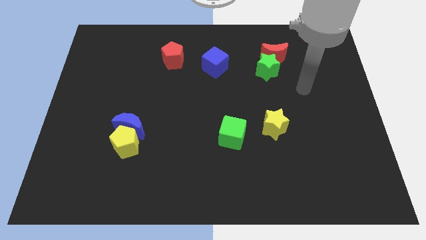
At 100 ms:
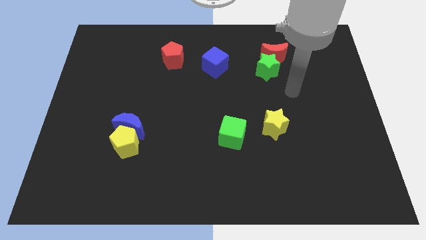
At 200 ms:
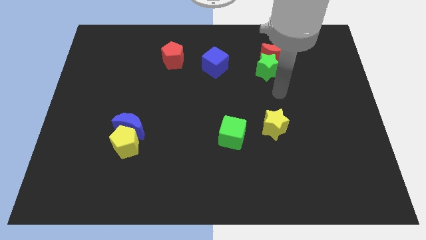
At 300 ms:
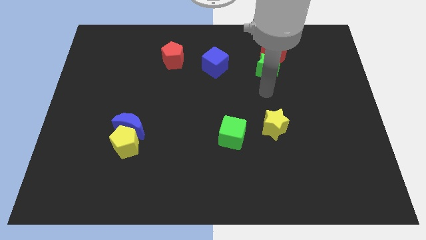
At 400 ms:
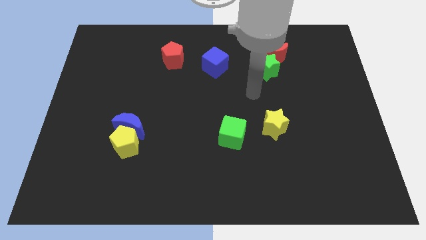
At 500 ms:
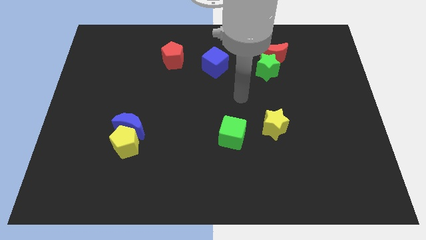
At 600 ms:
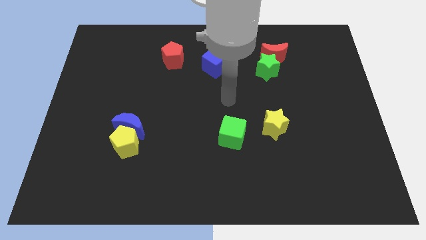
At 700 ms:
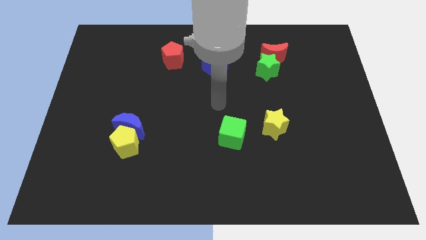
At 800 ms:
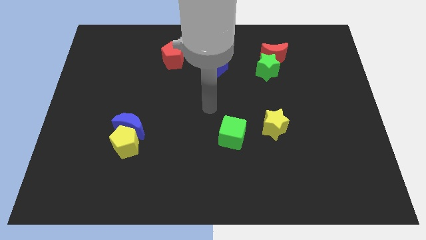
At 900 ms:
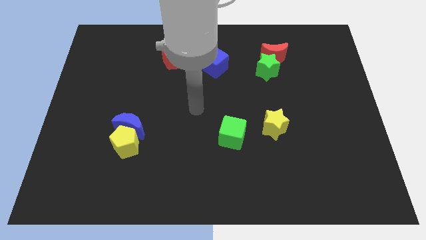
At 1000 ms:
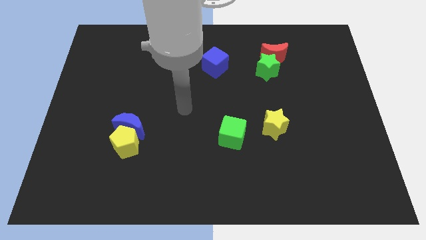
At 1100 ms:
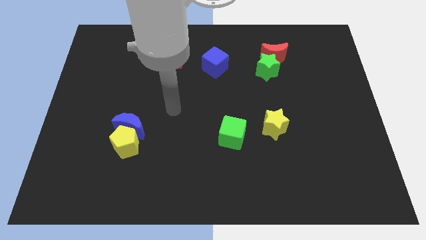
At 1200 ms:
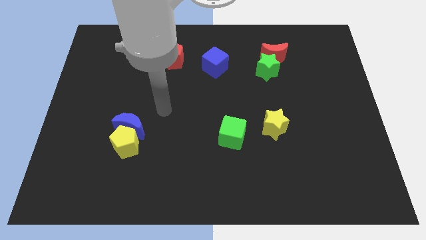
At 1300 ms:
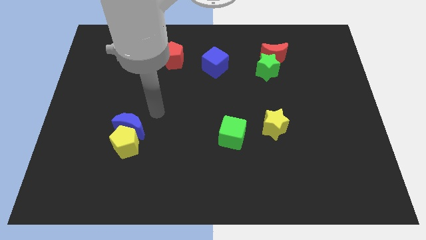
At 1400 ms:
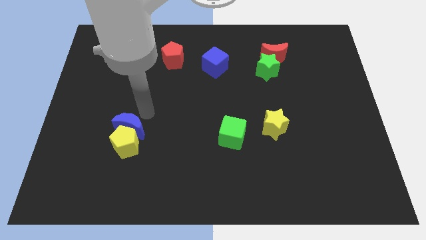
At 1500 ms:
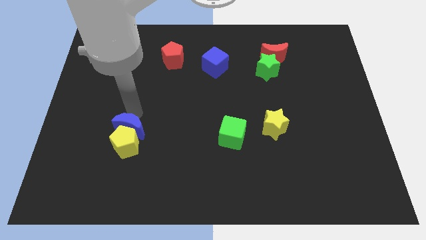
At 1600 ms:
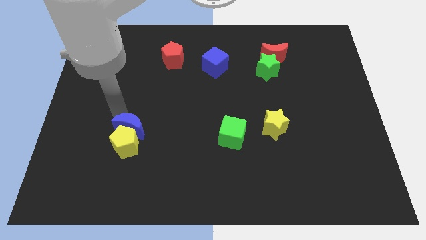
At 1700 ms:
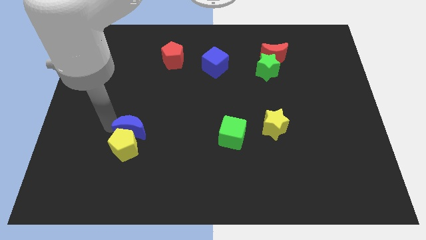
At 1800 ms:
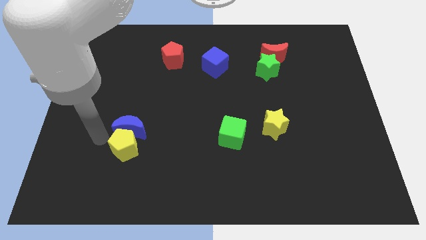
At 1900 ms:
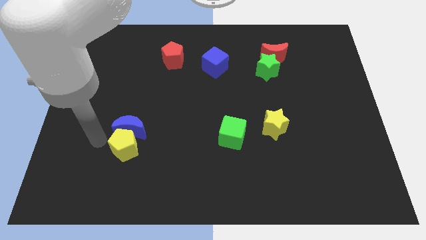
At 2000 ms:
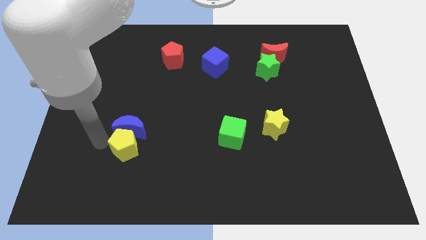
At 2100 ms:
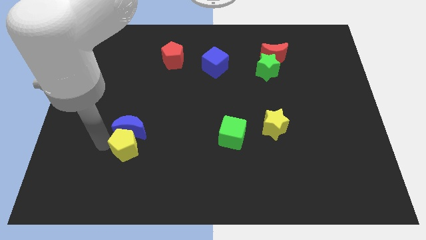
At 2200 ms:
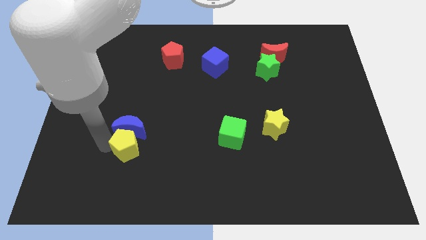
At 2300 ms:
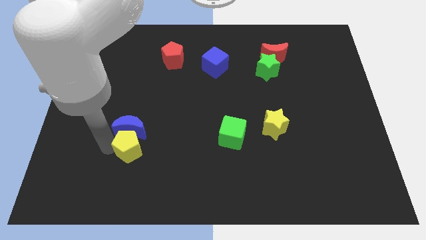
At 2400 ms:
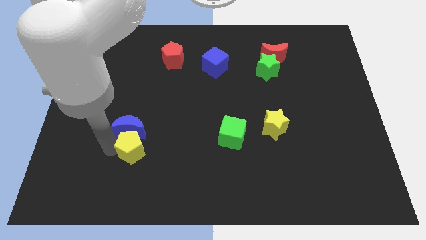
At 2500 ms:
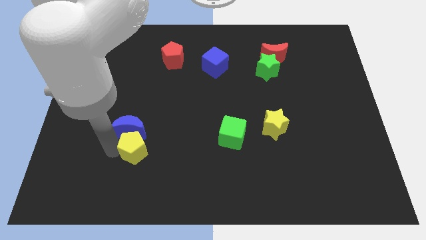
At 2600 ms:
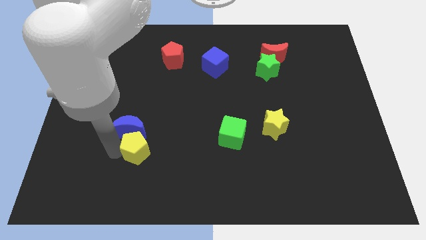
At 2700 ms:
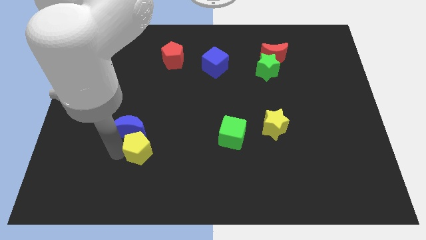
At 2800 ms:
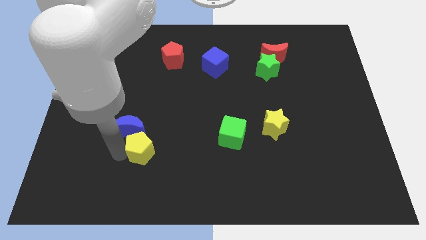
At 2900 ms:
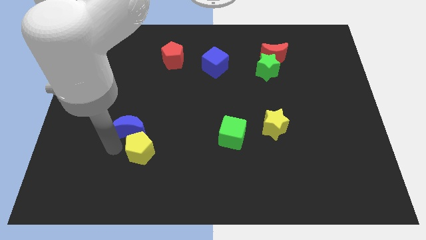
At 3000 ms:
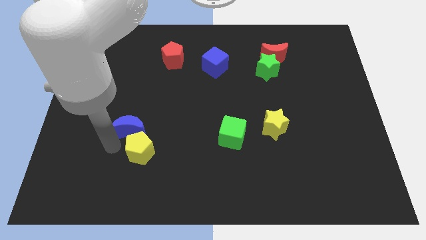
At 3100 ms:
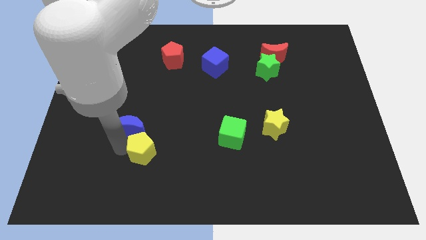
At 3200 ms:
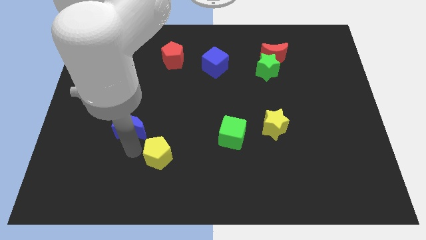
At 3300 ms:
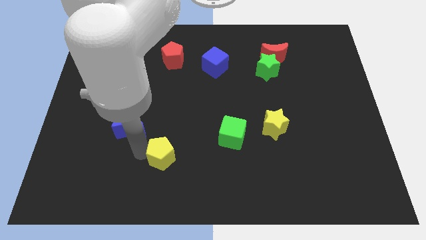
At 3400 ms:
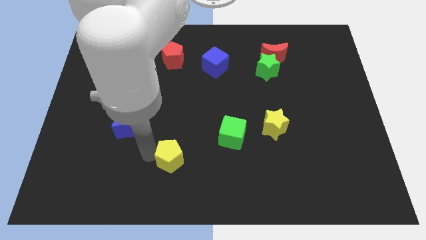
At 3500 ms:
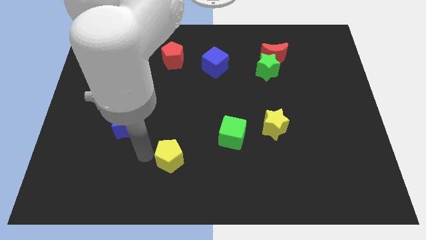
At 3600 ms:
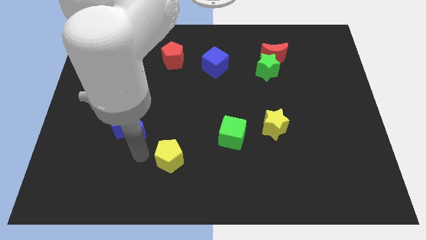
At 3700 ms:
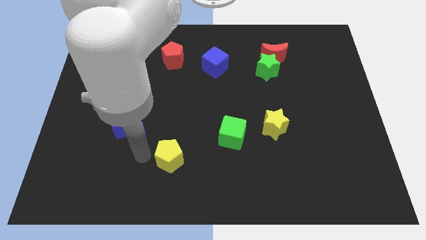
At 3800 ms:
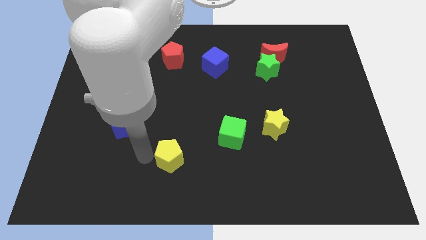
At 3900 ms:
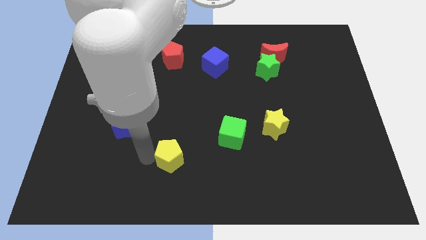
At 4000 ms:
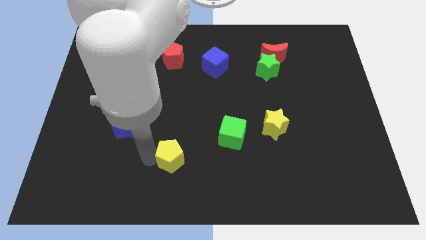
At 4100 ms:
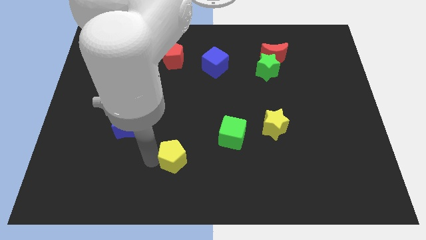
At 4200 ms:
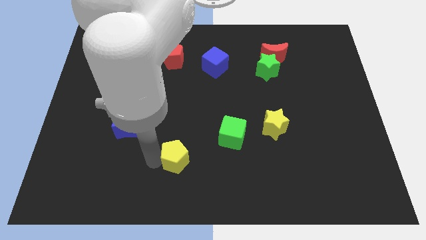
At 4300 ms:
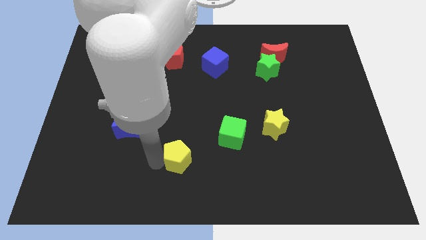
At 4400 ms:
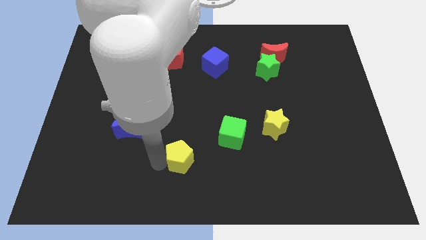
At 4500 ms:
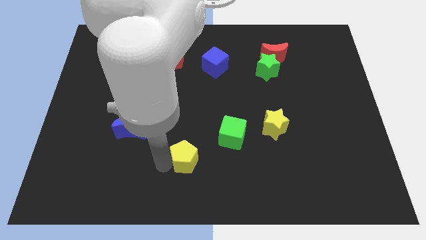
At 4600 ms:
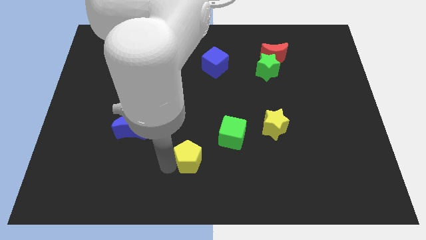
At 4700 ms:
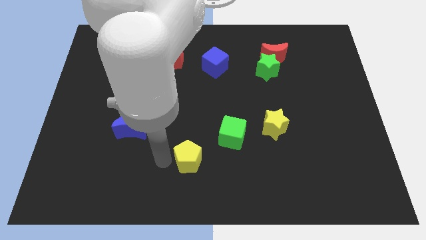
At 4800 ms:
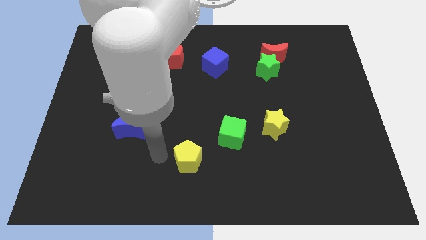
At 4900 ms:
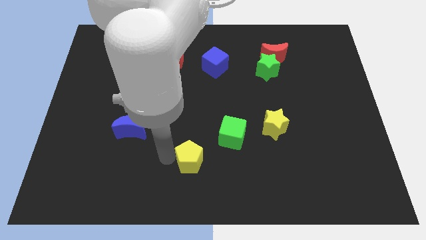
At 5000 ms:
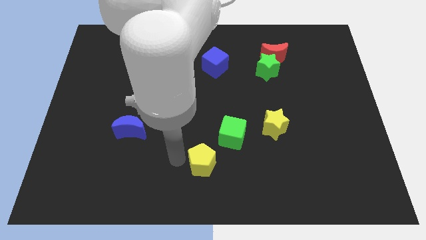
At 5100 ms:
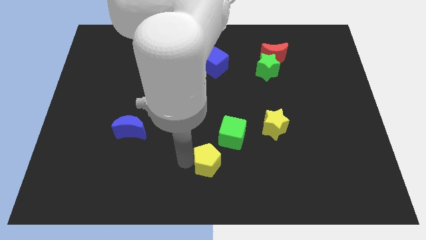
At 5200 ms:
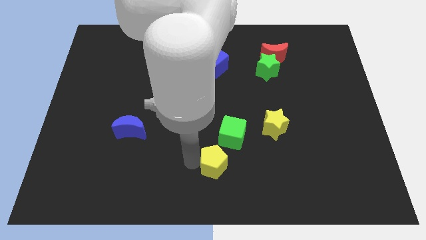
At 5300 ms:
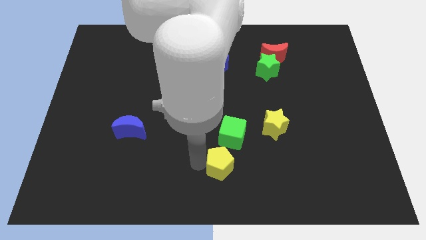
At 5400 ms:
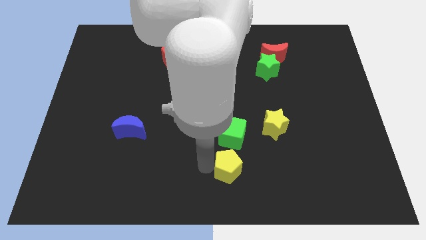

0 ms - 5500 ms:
slide the yellow pentagon right

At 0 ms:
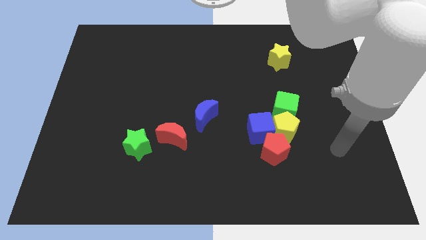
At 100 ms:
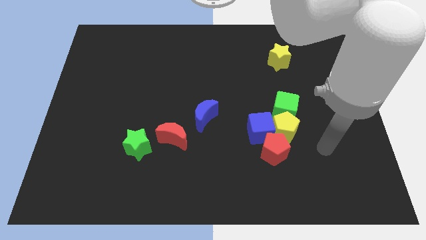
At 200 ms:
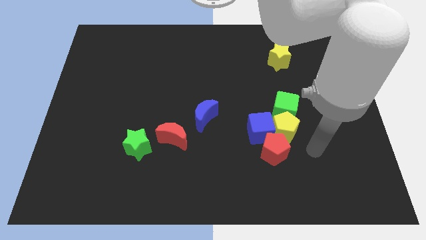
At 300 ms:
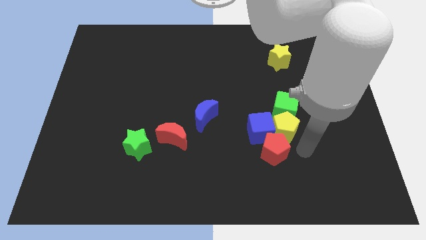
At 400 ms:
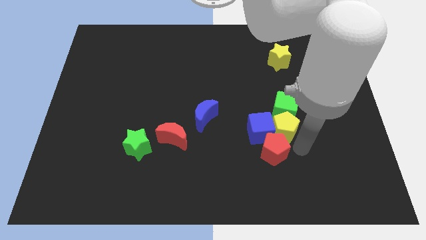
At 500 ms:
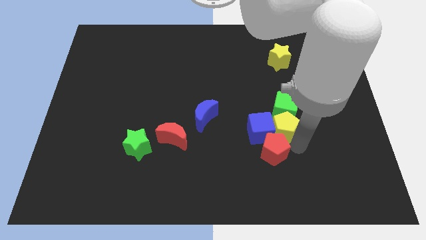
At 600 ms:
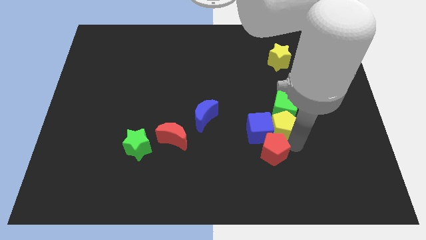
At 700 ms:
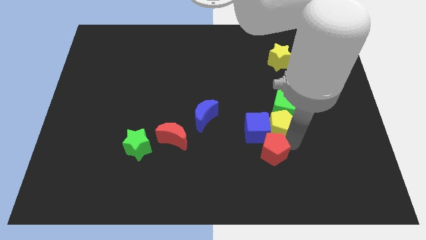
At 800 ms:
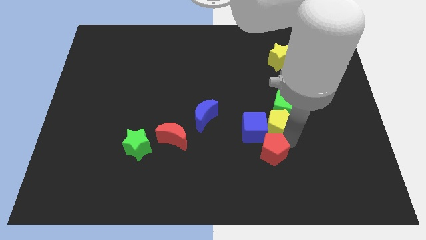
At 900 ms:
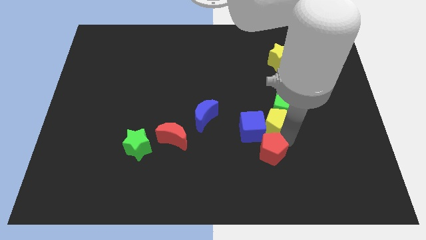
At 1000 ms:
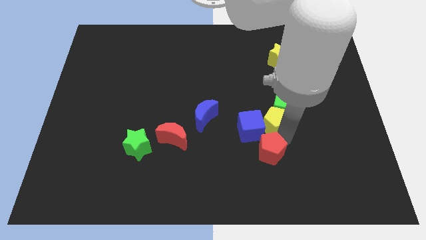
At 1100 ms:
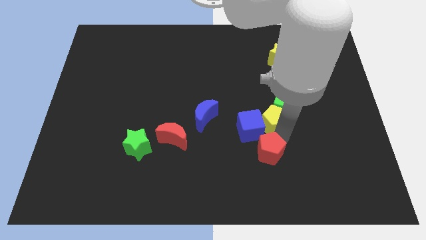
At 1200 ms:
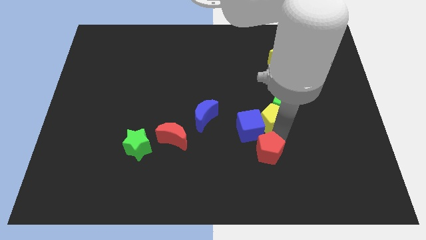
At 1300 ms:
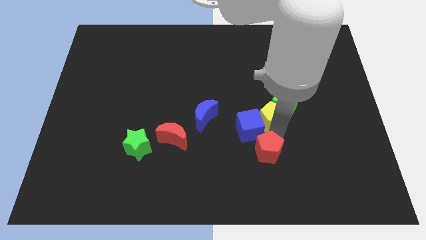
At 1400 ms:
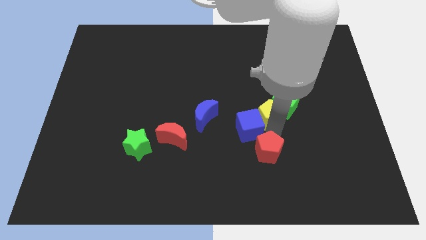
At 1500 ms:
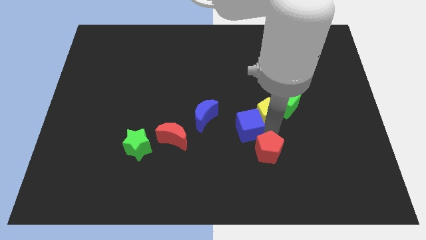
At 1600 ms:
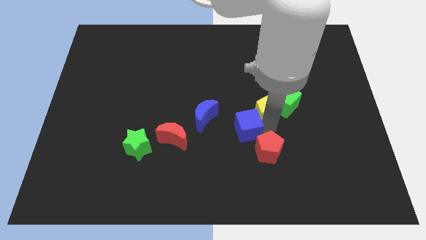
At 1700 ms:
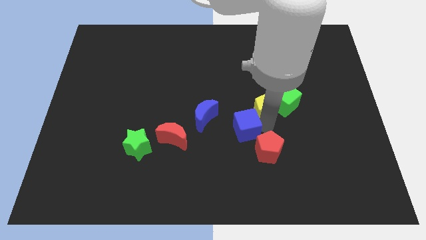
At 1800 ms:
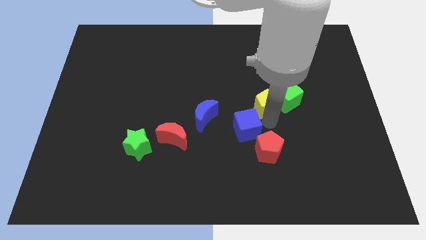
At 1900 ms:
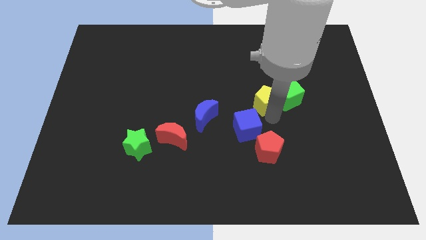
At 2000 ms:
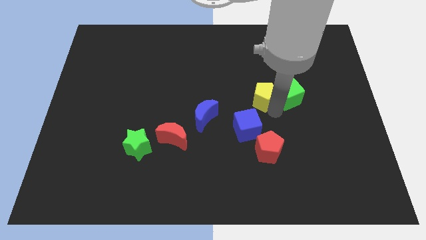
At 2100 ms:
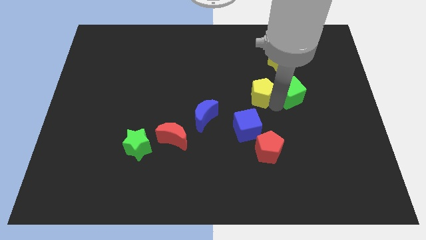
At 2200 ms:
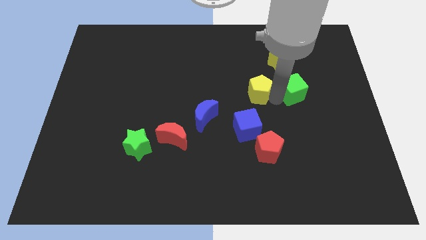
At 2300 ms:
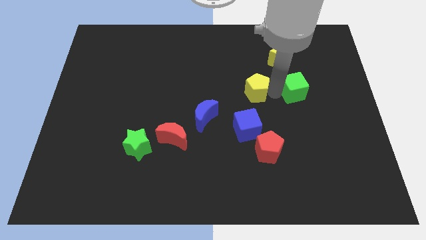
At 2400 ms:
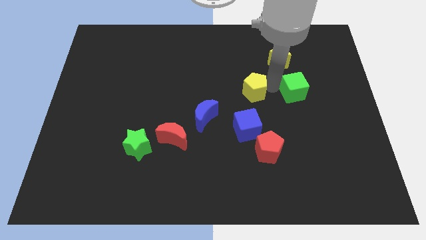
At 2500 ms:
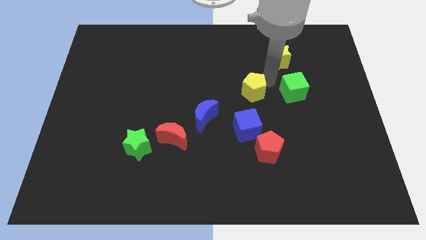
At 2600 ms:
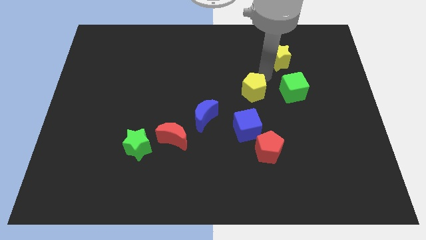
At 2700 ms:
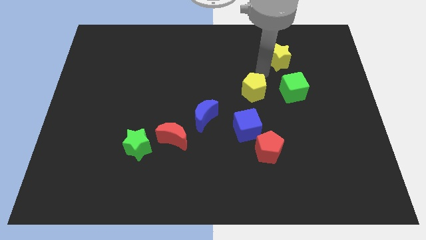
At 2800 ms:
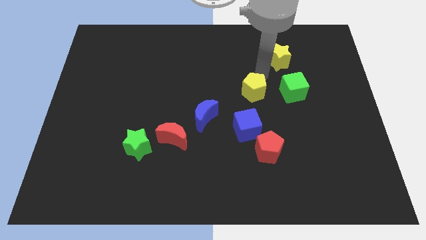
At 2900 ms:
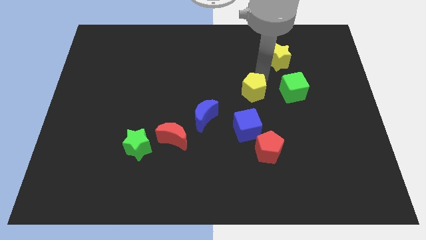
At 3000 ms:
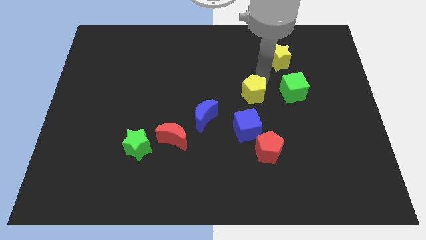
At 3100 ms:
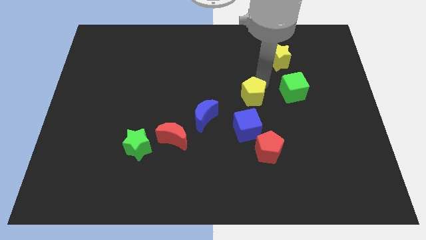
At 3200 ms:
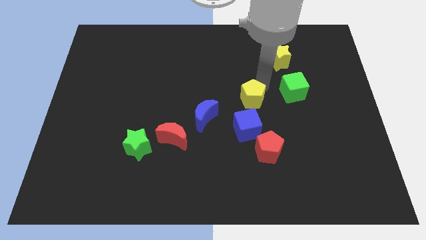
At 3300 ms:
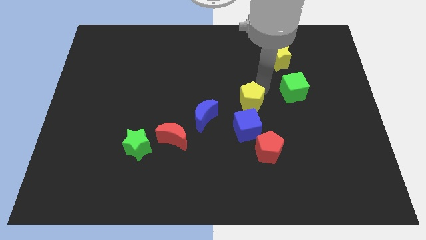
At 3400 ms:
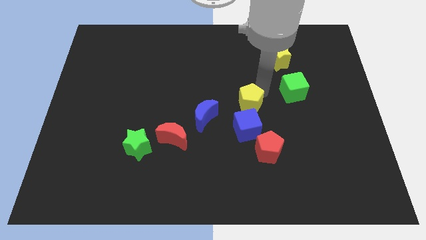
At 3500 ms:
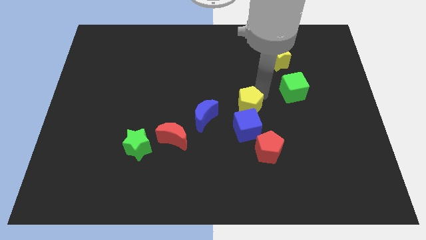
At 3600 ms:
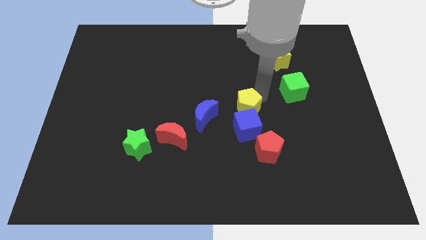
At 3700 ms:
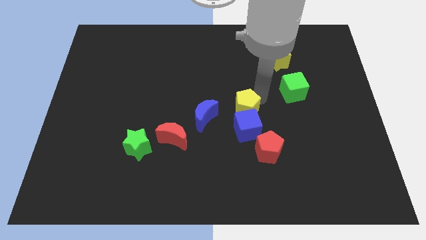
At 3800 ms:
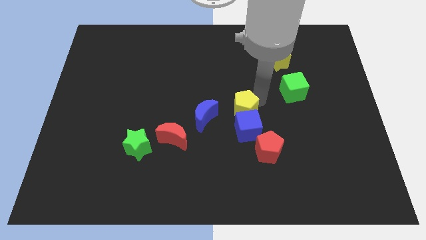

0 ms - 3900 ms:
slightly push the yellow pentagon left
